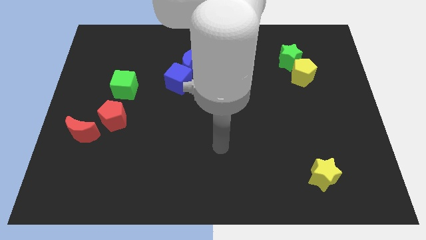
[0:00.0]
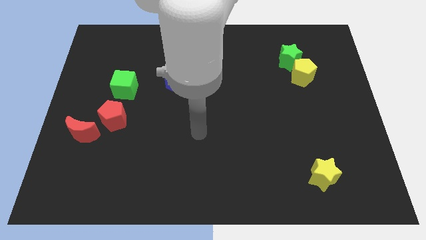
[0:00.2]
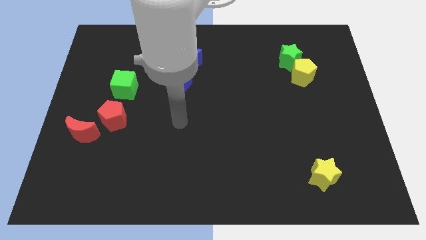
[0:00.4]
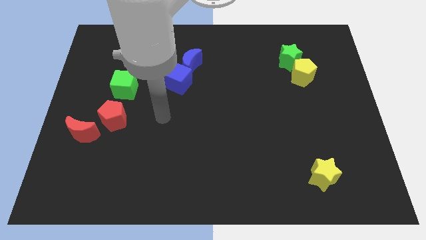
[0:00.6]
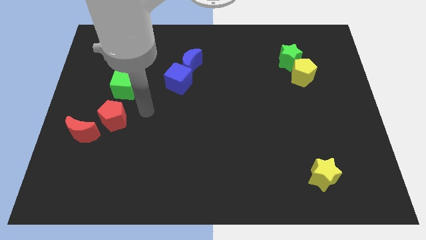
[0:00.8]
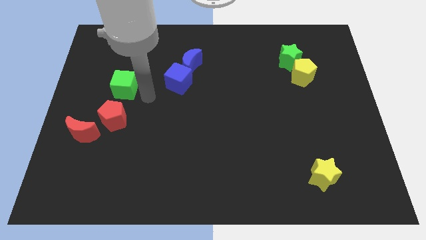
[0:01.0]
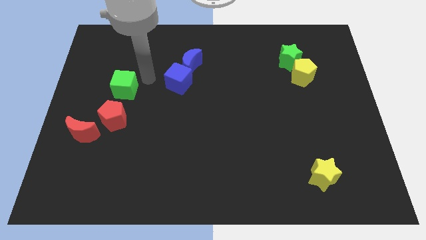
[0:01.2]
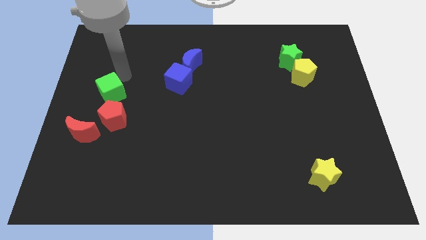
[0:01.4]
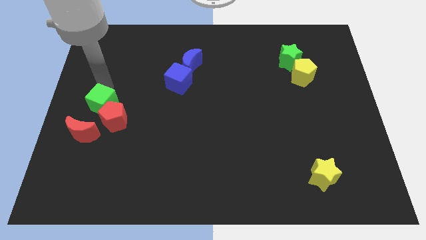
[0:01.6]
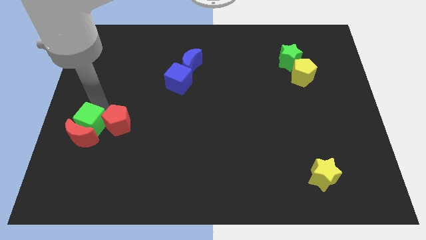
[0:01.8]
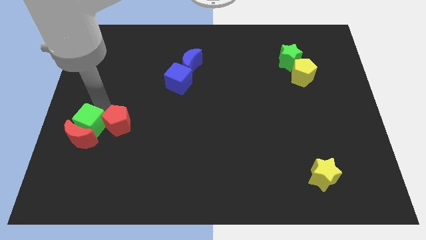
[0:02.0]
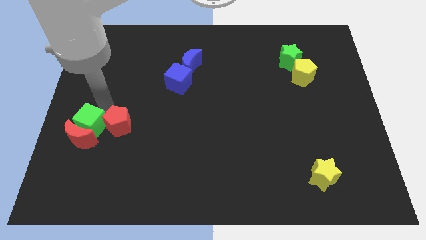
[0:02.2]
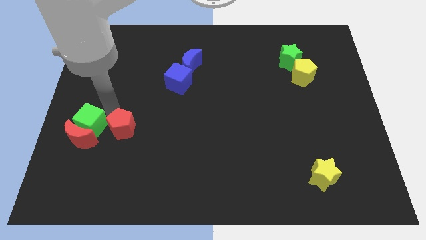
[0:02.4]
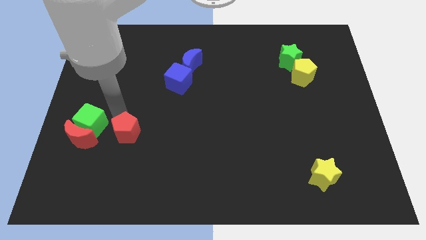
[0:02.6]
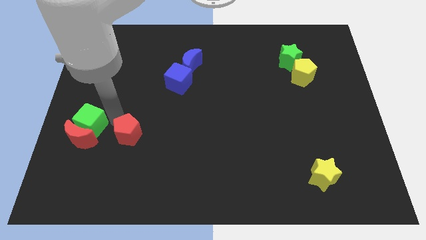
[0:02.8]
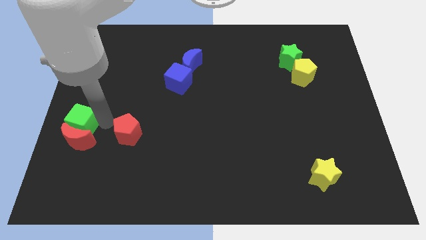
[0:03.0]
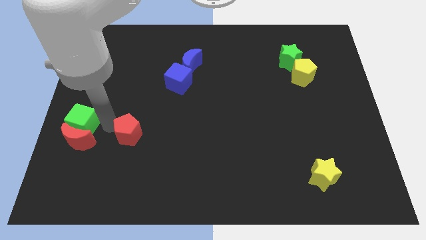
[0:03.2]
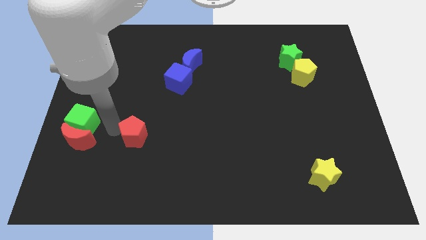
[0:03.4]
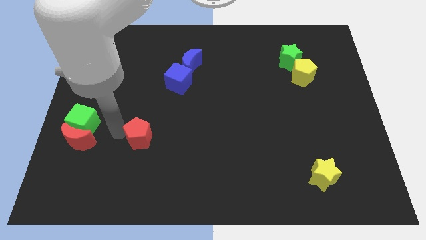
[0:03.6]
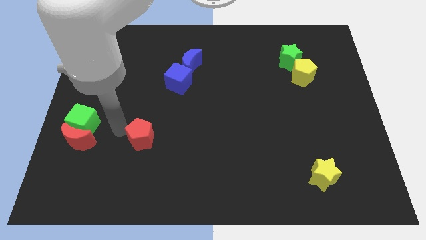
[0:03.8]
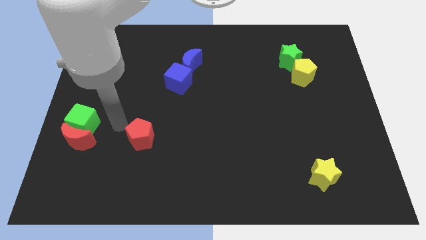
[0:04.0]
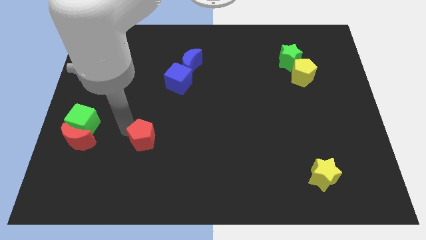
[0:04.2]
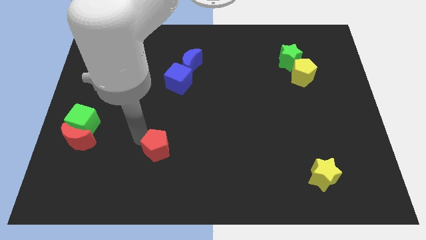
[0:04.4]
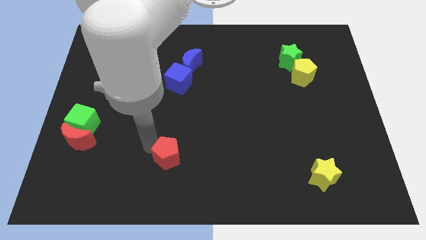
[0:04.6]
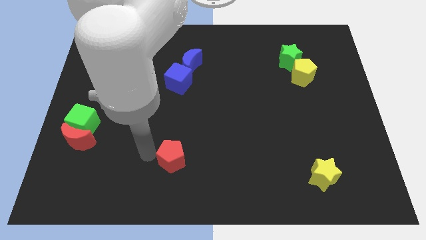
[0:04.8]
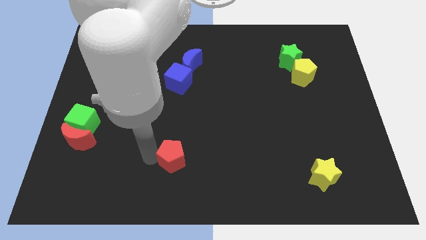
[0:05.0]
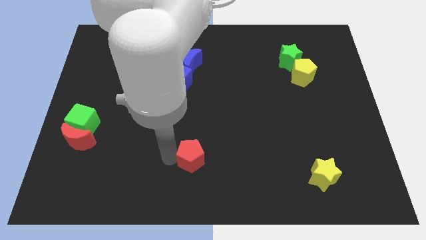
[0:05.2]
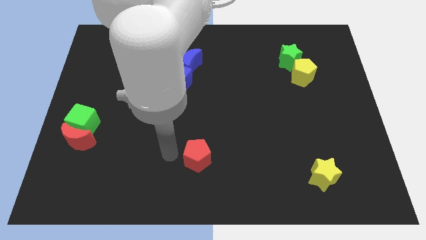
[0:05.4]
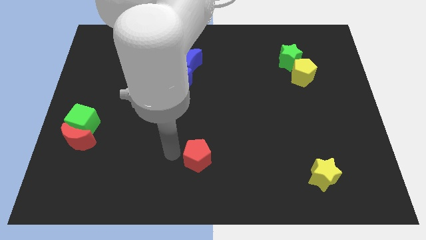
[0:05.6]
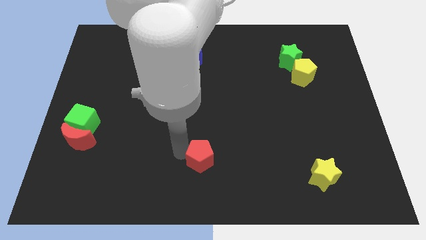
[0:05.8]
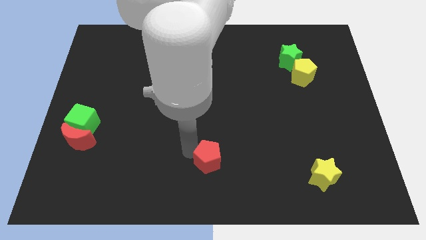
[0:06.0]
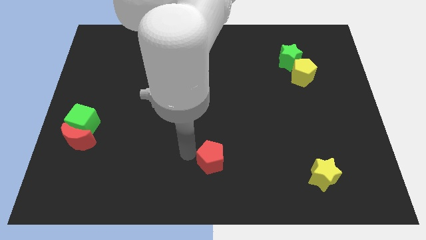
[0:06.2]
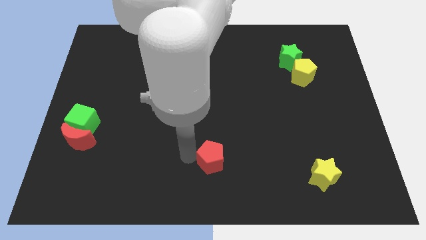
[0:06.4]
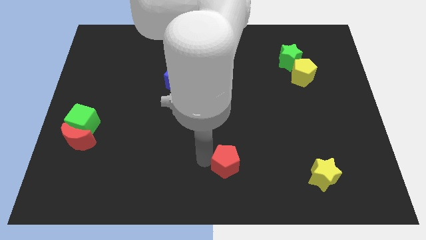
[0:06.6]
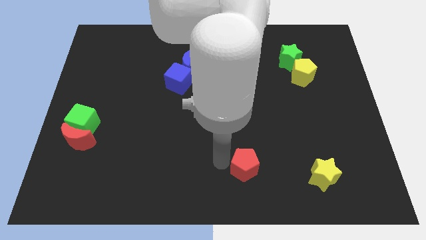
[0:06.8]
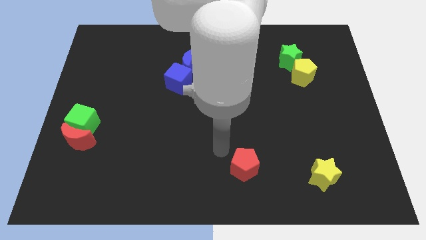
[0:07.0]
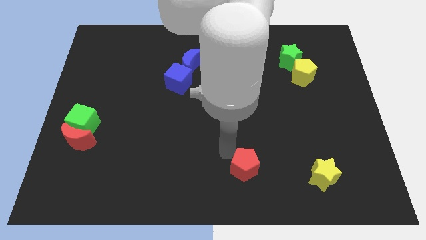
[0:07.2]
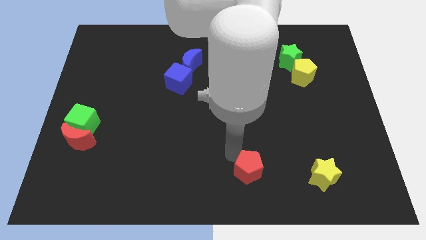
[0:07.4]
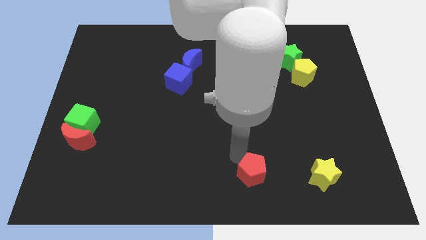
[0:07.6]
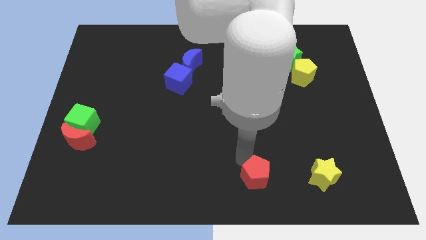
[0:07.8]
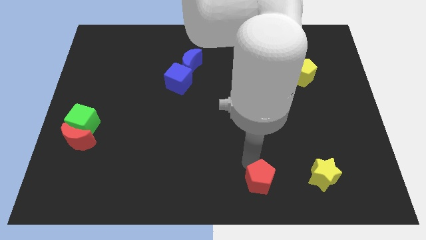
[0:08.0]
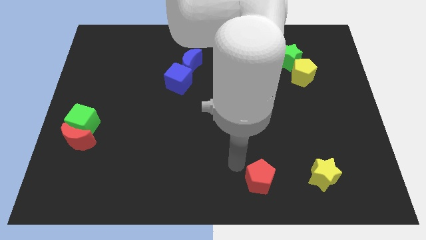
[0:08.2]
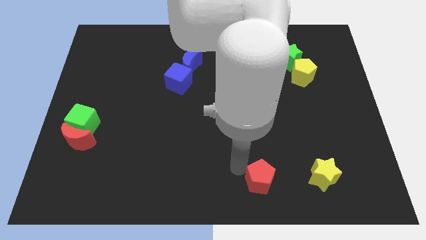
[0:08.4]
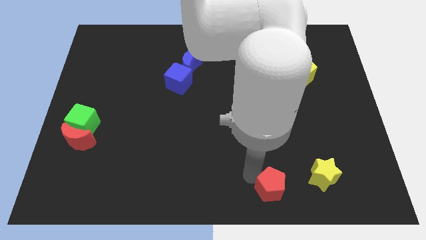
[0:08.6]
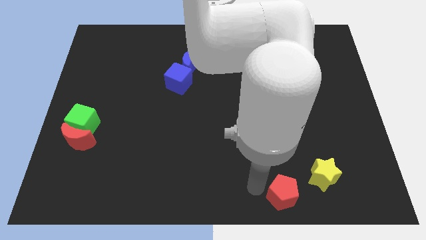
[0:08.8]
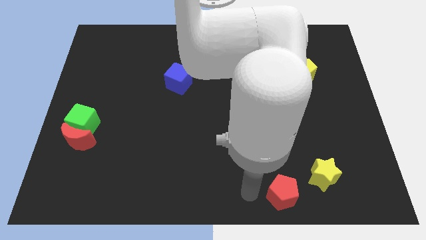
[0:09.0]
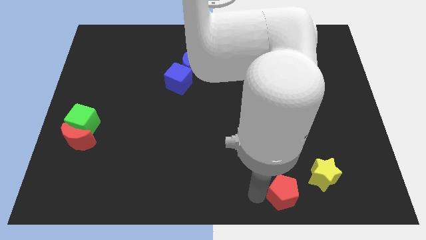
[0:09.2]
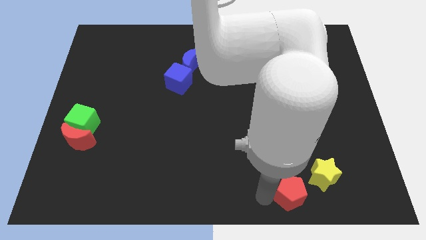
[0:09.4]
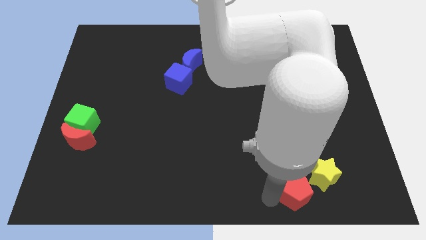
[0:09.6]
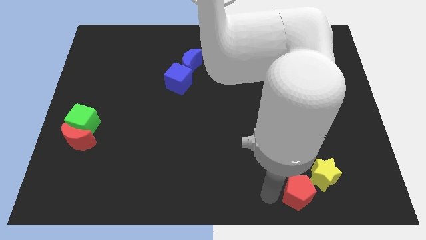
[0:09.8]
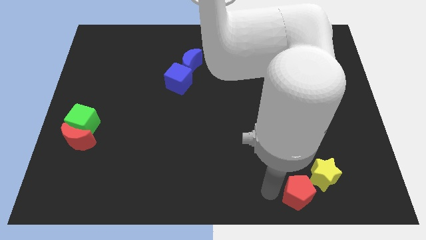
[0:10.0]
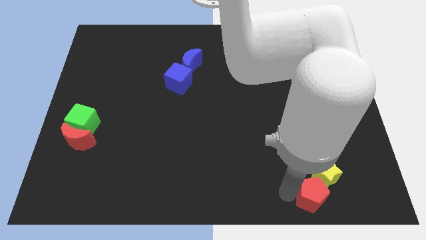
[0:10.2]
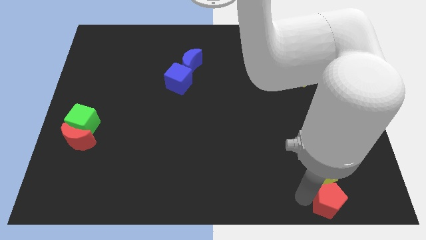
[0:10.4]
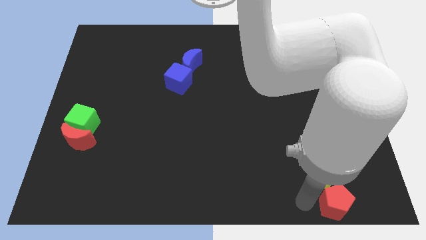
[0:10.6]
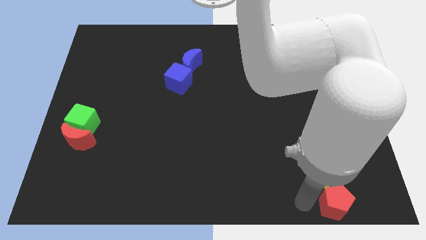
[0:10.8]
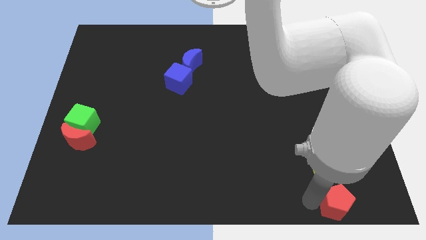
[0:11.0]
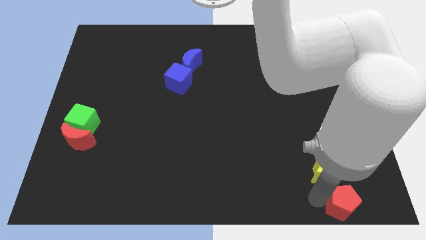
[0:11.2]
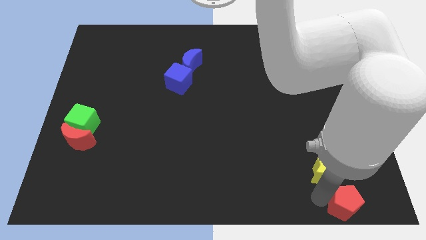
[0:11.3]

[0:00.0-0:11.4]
put the red pentagon to the lower right corner

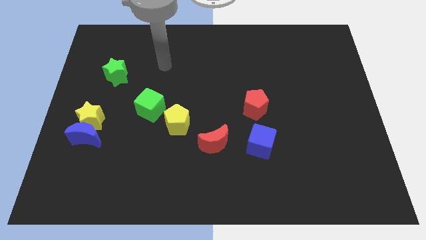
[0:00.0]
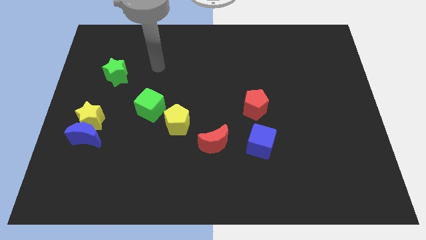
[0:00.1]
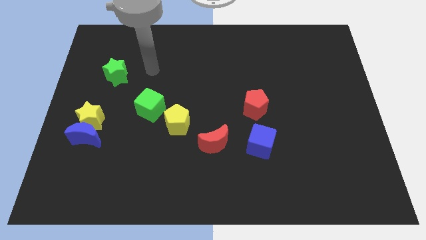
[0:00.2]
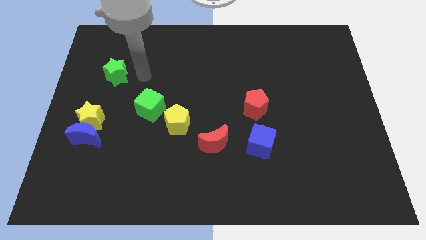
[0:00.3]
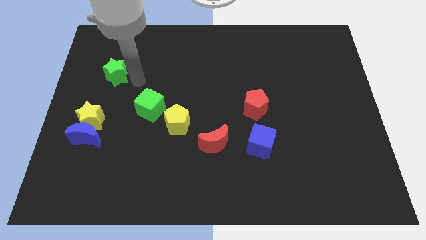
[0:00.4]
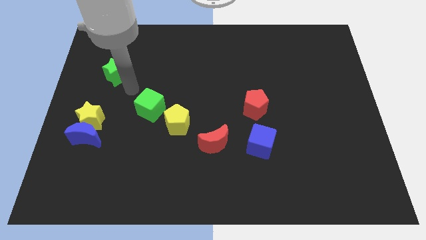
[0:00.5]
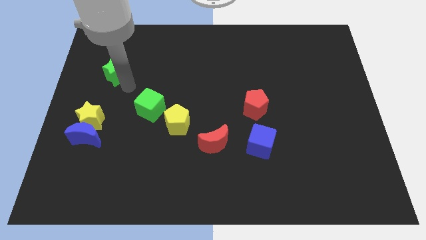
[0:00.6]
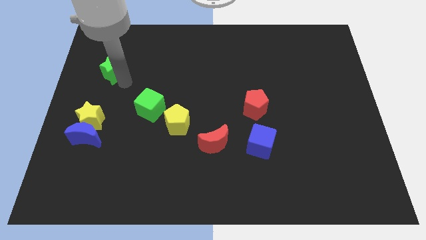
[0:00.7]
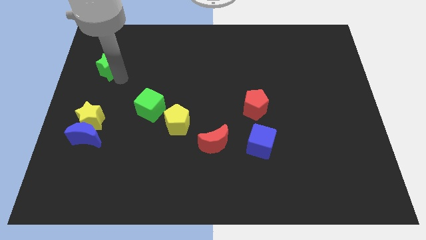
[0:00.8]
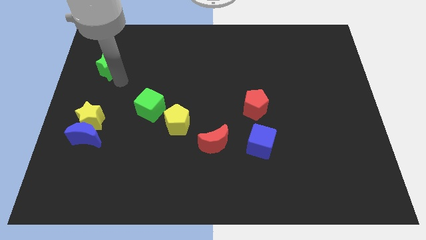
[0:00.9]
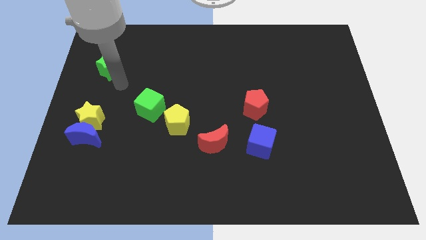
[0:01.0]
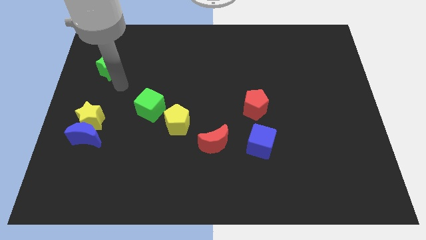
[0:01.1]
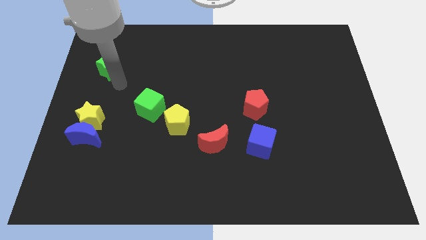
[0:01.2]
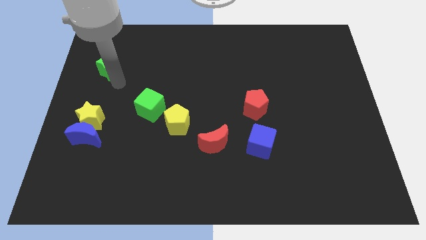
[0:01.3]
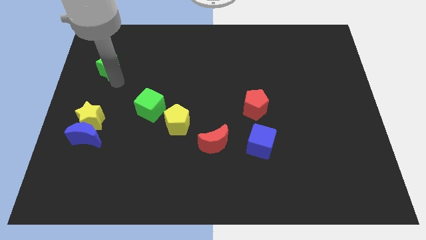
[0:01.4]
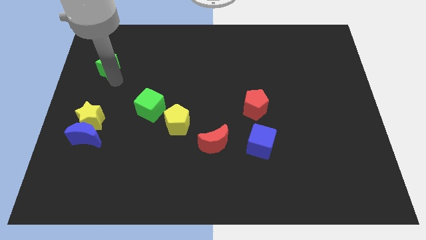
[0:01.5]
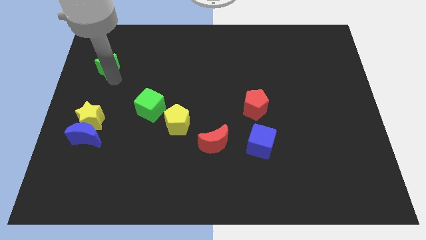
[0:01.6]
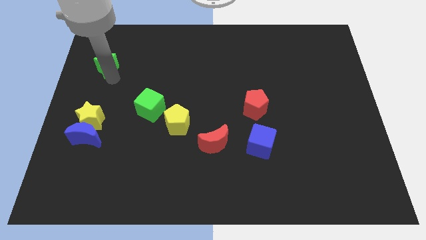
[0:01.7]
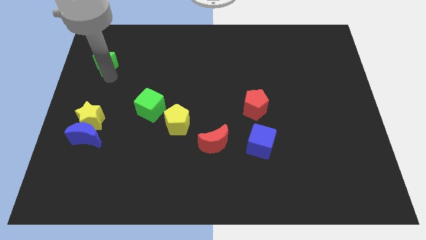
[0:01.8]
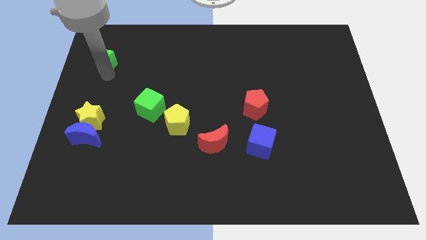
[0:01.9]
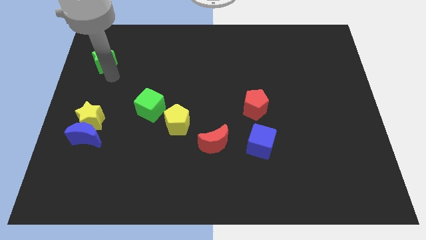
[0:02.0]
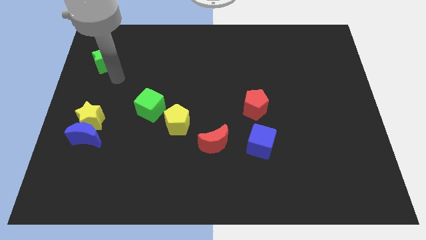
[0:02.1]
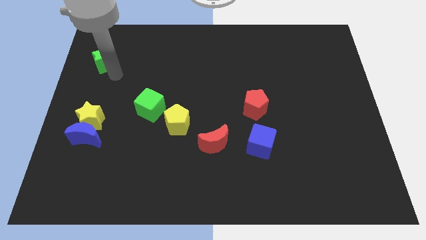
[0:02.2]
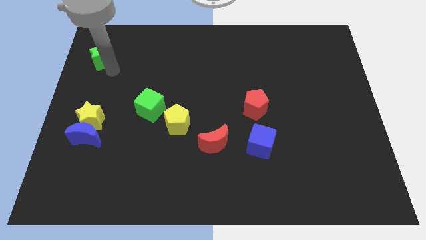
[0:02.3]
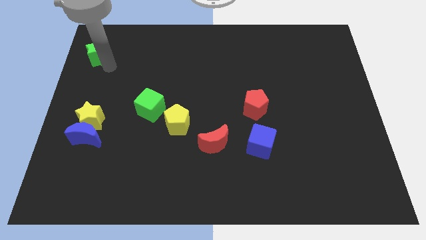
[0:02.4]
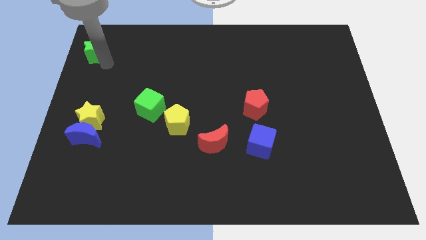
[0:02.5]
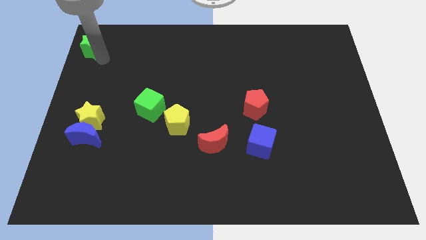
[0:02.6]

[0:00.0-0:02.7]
move the green star to the upper left corner
